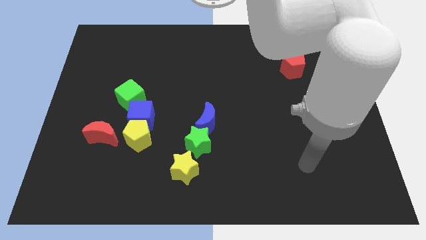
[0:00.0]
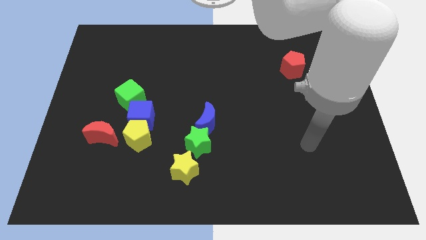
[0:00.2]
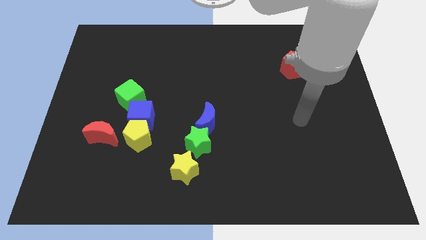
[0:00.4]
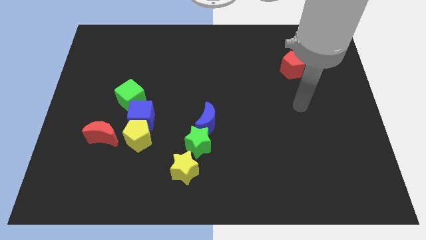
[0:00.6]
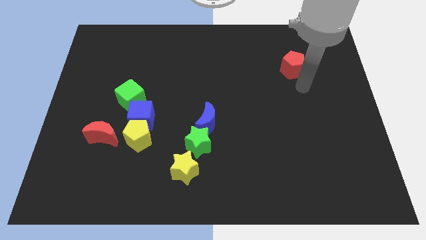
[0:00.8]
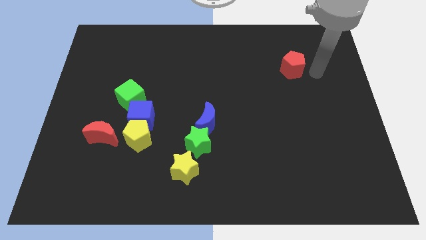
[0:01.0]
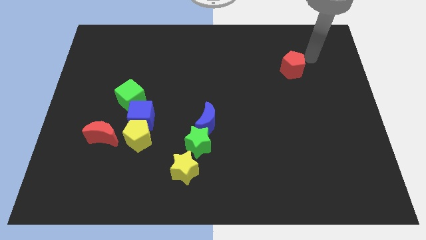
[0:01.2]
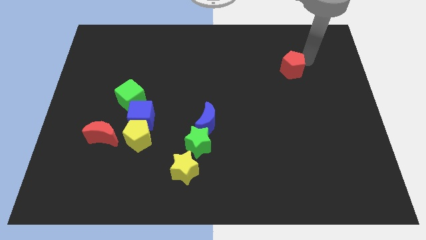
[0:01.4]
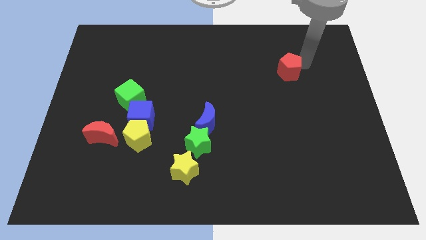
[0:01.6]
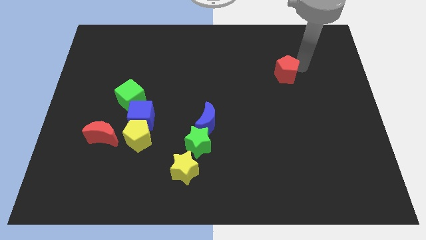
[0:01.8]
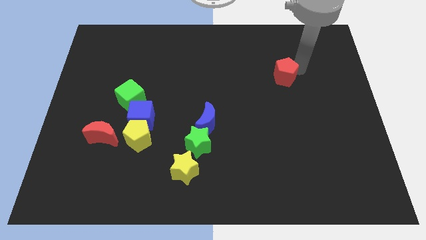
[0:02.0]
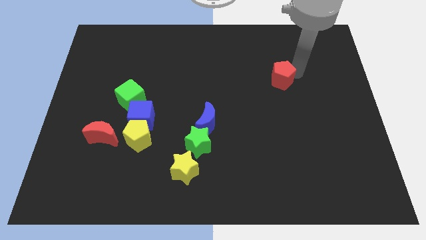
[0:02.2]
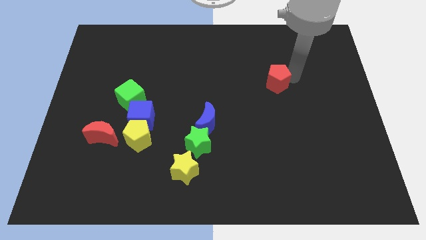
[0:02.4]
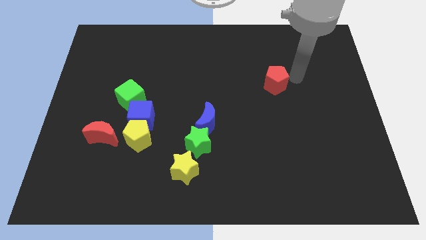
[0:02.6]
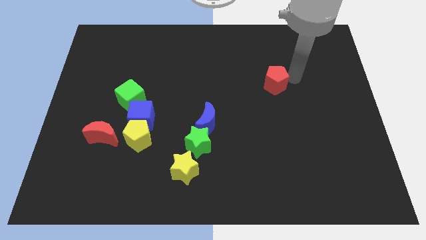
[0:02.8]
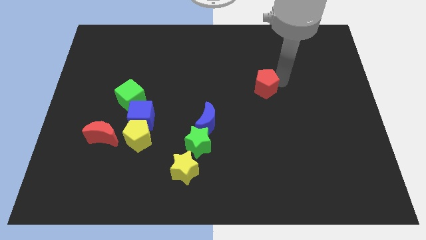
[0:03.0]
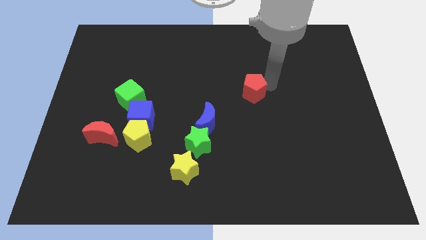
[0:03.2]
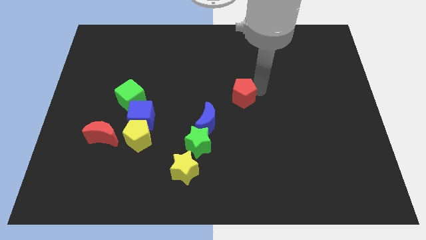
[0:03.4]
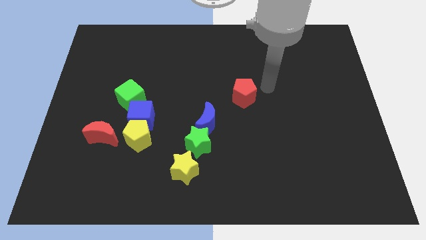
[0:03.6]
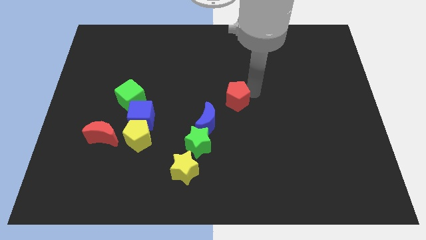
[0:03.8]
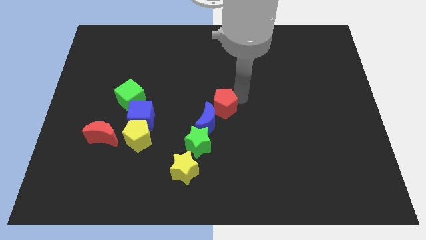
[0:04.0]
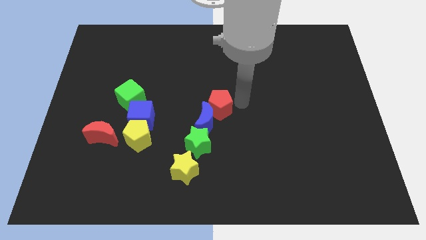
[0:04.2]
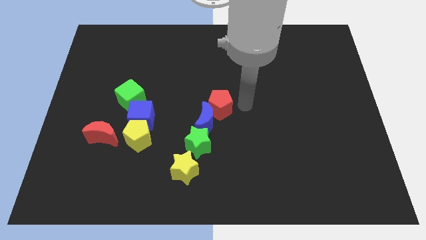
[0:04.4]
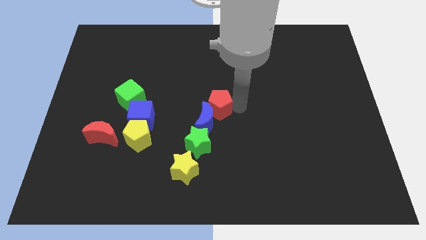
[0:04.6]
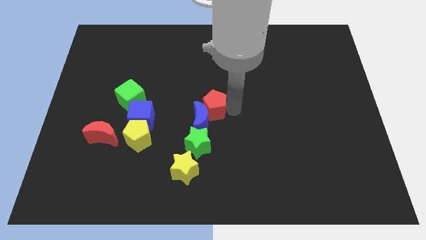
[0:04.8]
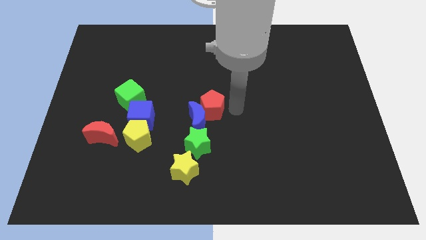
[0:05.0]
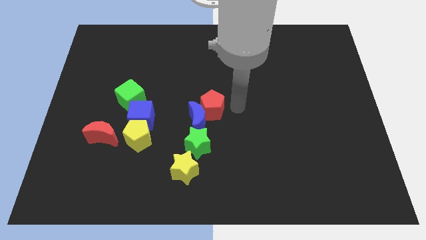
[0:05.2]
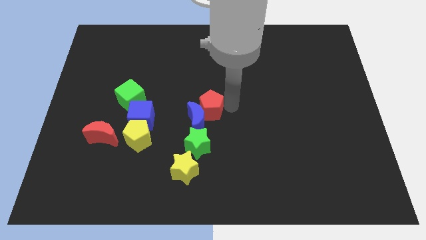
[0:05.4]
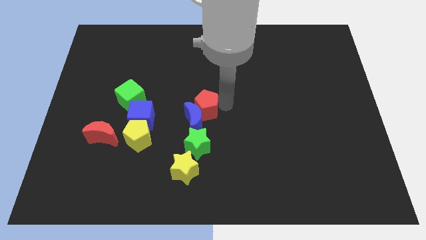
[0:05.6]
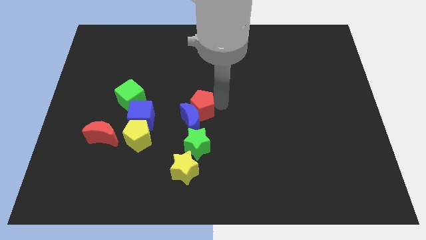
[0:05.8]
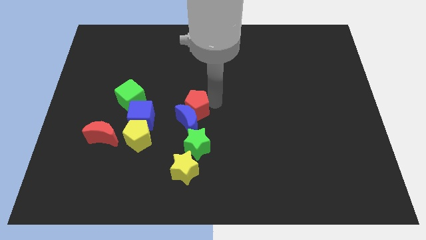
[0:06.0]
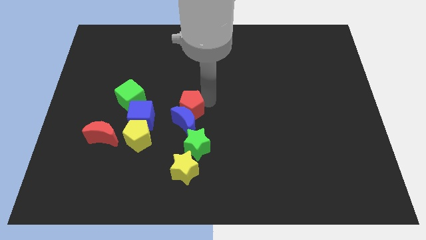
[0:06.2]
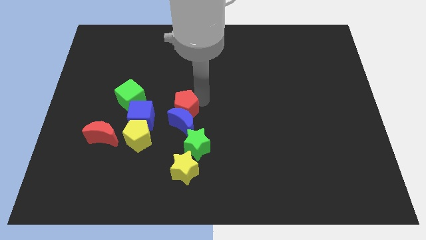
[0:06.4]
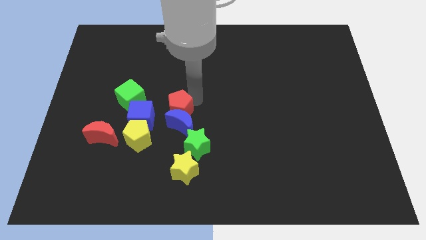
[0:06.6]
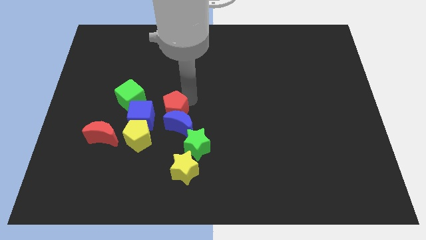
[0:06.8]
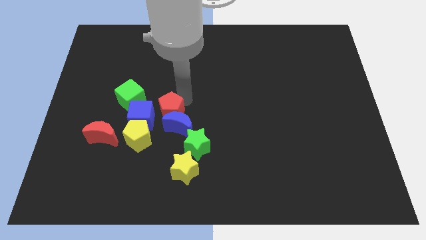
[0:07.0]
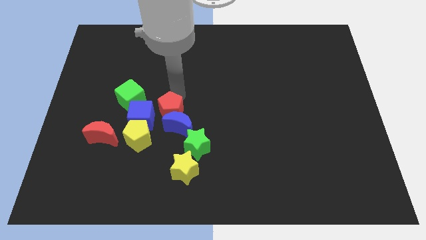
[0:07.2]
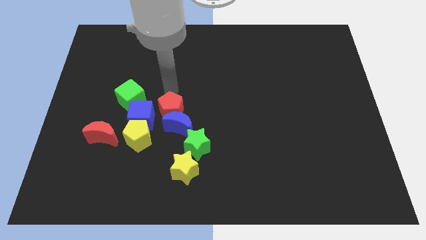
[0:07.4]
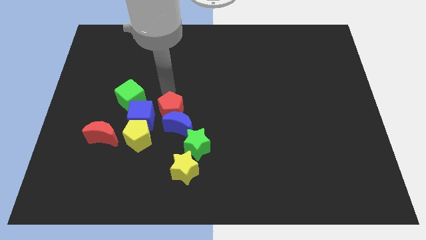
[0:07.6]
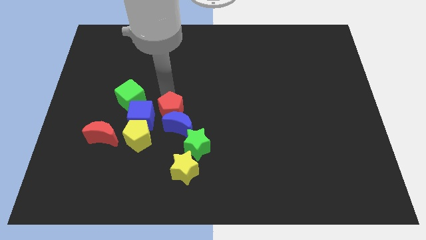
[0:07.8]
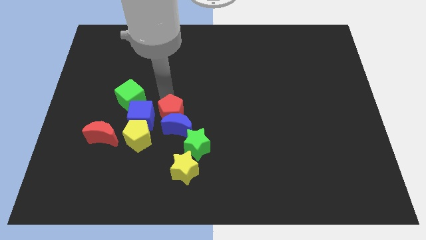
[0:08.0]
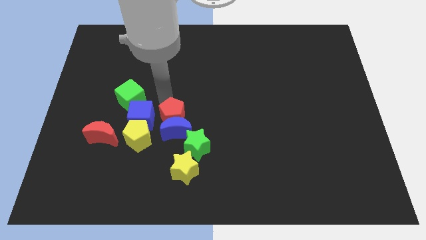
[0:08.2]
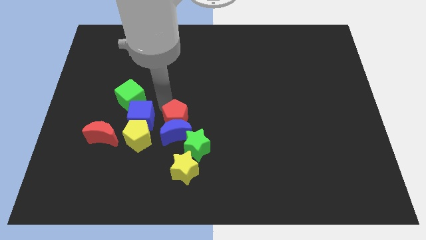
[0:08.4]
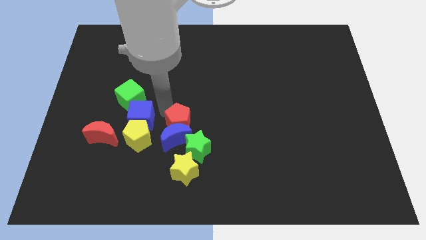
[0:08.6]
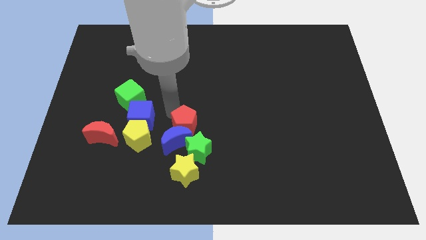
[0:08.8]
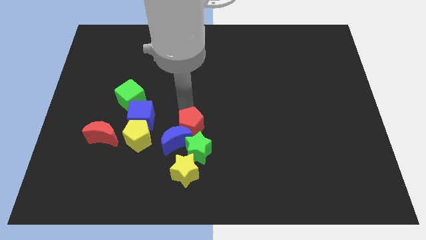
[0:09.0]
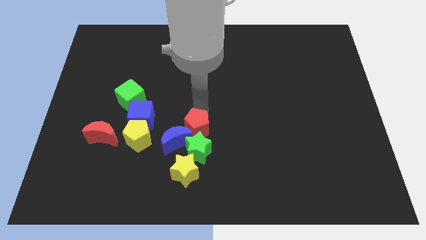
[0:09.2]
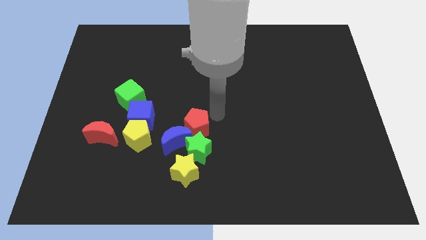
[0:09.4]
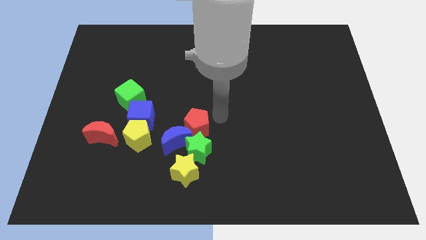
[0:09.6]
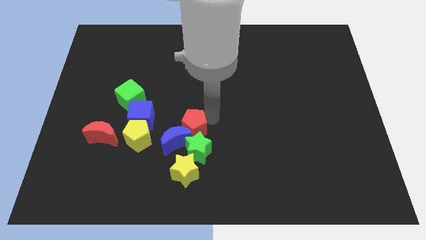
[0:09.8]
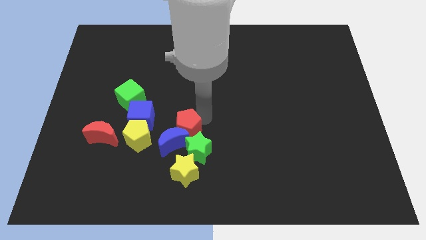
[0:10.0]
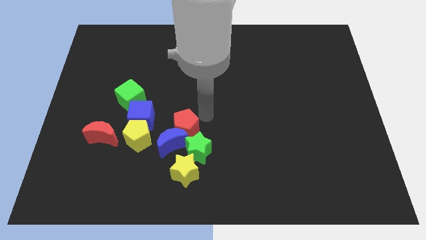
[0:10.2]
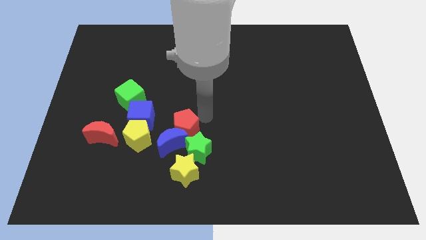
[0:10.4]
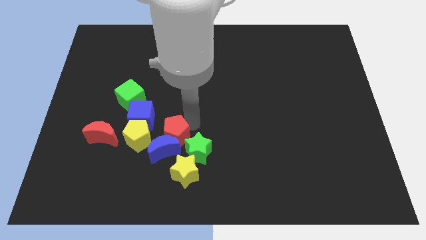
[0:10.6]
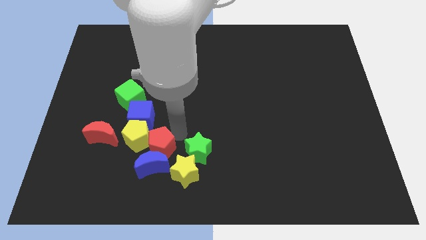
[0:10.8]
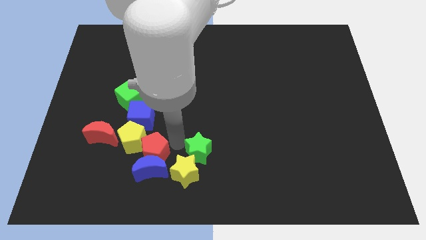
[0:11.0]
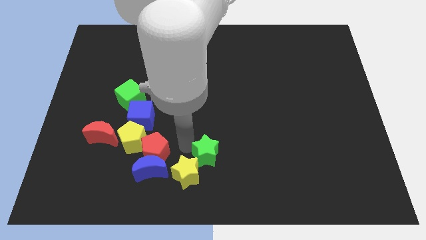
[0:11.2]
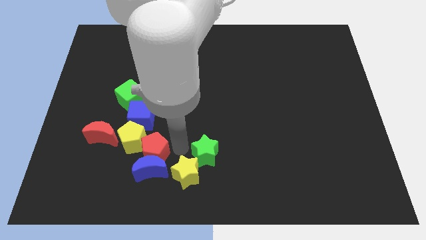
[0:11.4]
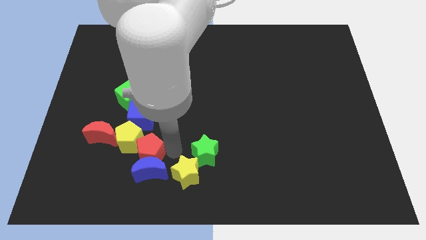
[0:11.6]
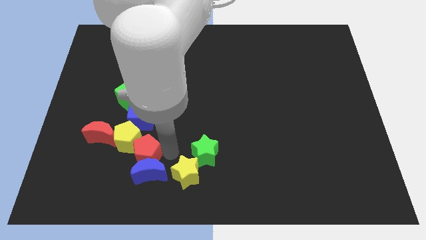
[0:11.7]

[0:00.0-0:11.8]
put the red pentagon to the bottom right side of the red moon

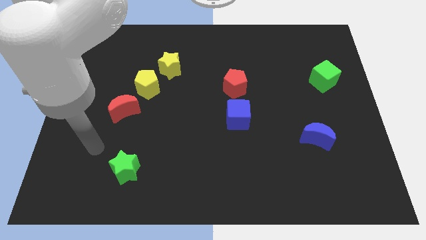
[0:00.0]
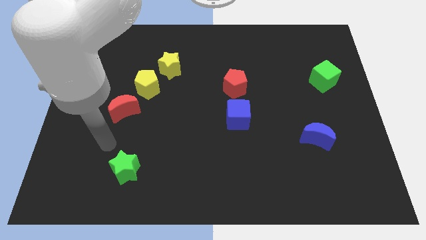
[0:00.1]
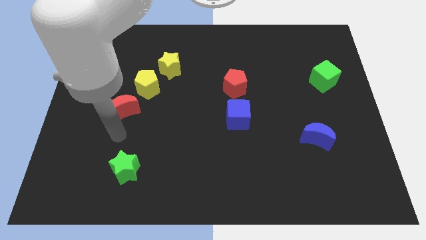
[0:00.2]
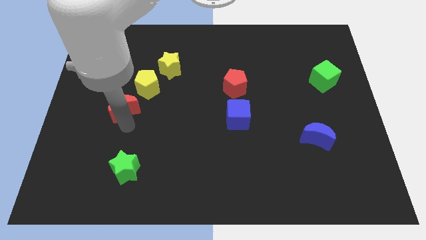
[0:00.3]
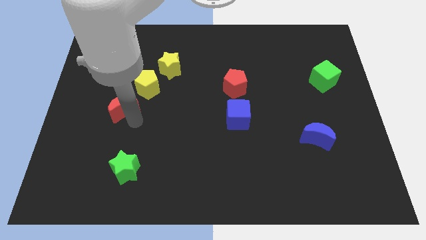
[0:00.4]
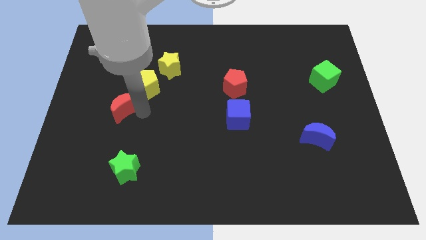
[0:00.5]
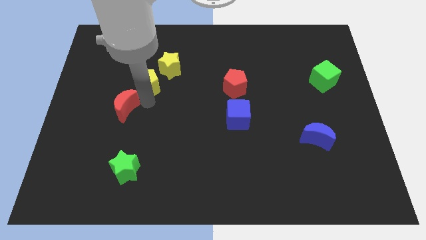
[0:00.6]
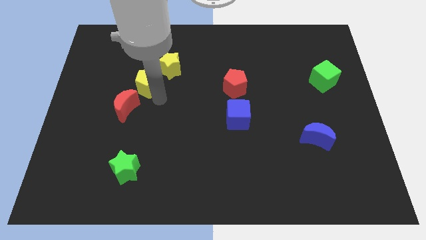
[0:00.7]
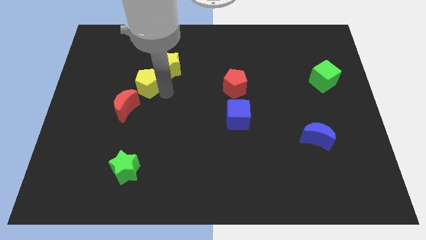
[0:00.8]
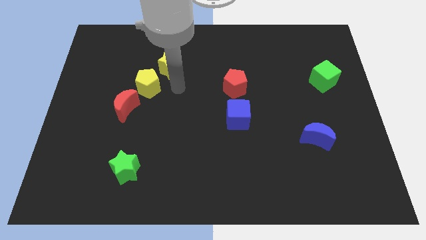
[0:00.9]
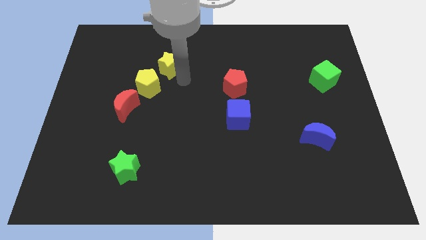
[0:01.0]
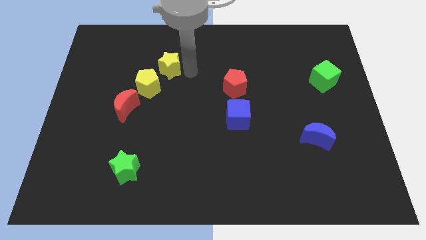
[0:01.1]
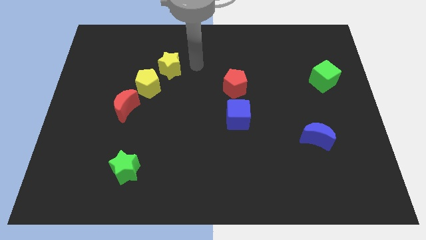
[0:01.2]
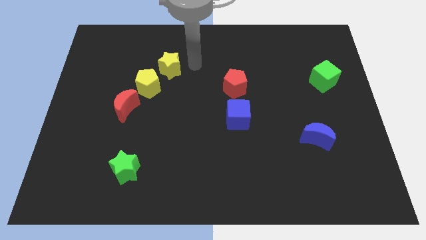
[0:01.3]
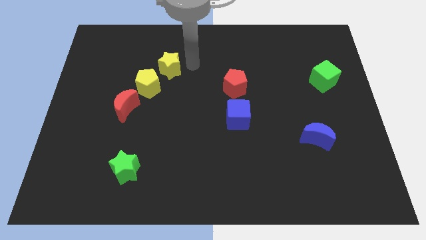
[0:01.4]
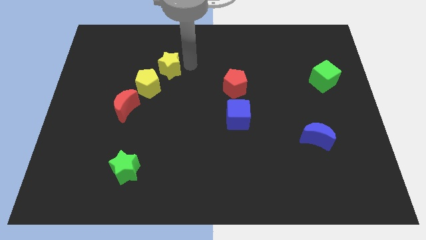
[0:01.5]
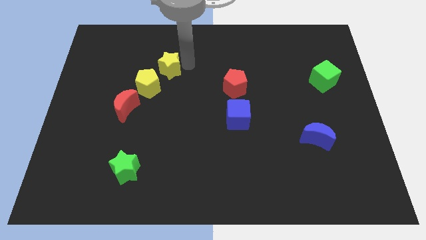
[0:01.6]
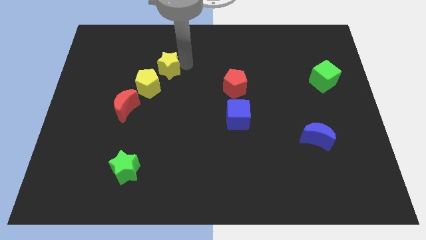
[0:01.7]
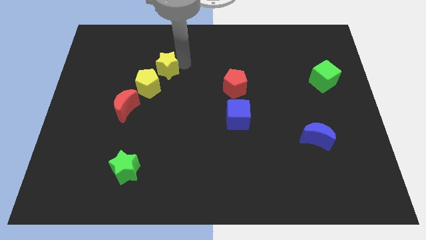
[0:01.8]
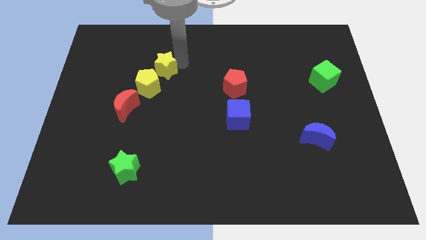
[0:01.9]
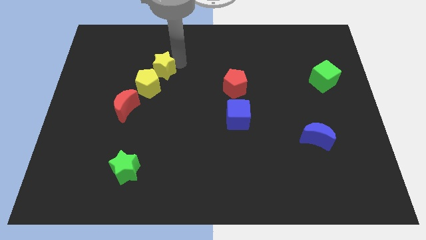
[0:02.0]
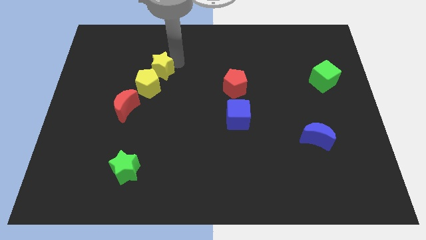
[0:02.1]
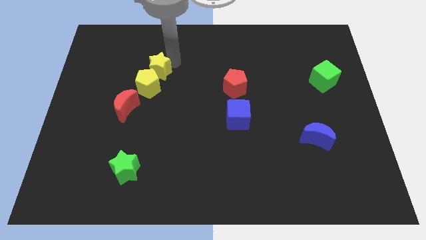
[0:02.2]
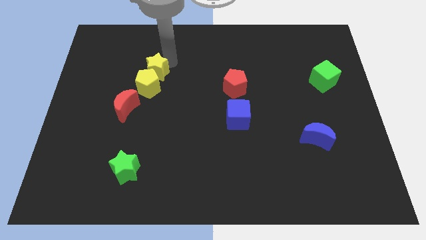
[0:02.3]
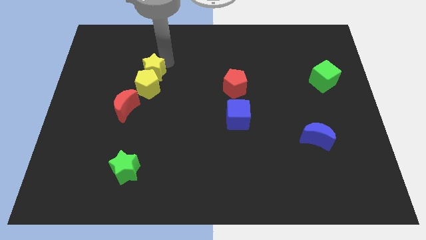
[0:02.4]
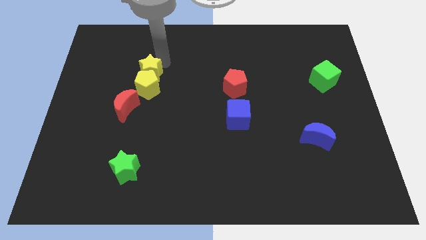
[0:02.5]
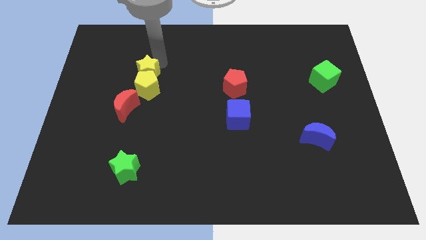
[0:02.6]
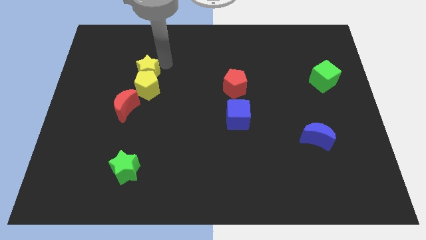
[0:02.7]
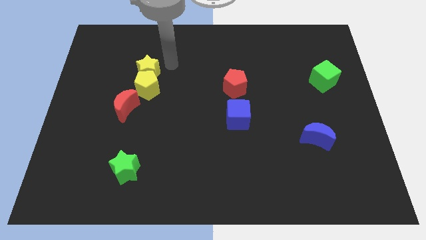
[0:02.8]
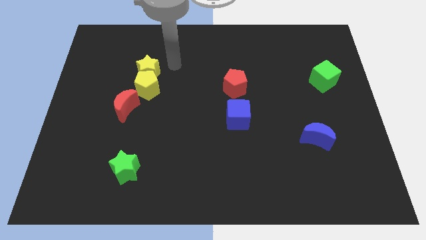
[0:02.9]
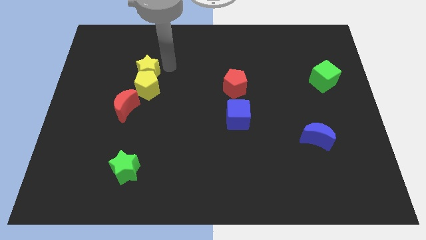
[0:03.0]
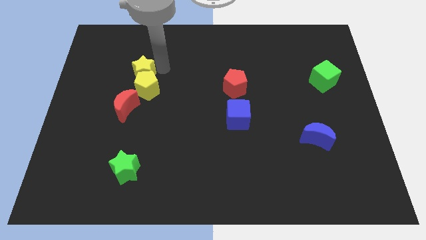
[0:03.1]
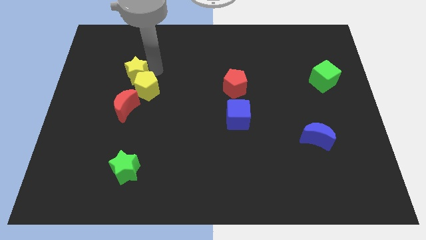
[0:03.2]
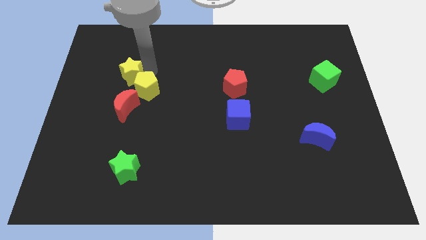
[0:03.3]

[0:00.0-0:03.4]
put the yellow star to the left side of the yellow pentagon
